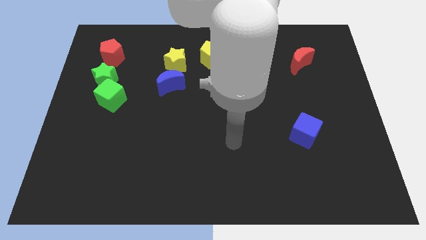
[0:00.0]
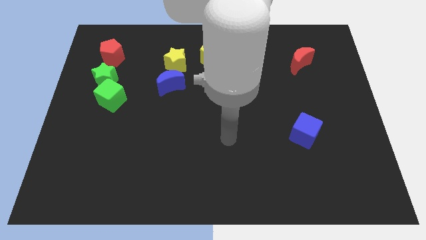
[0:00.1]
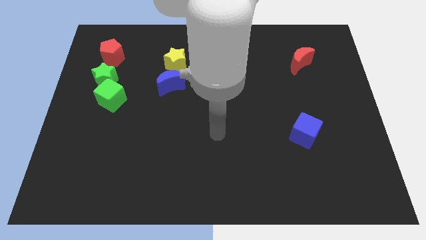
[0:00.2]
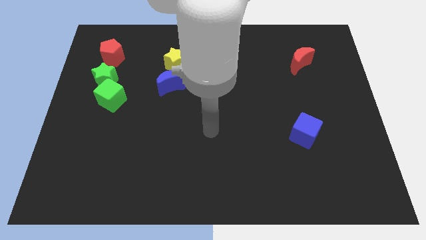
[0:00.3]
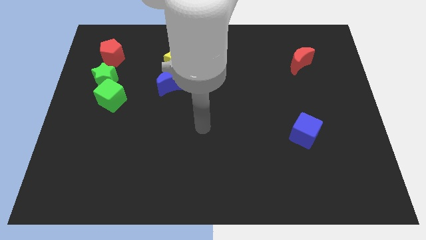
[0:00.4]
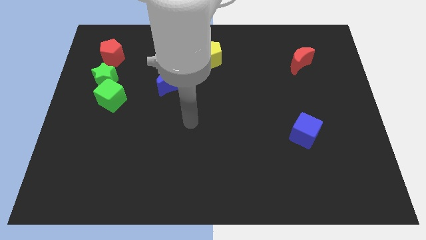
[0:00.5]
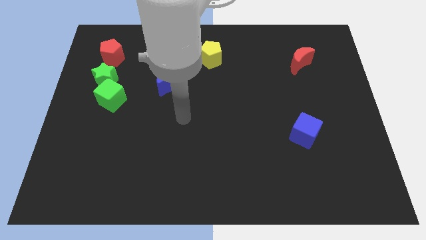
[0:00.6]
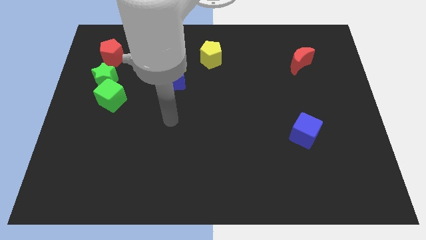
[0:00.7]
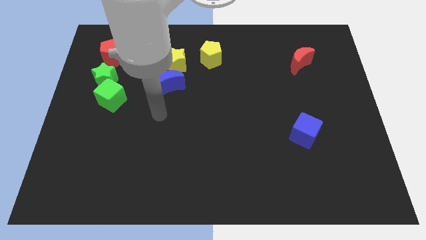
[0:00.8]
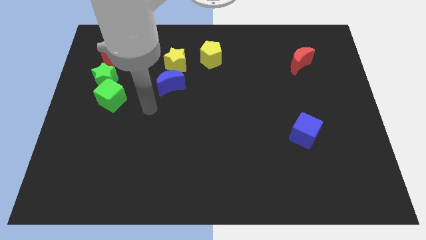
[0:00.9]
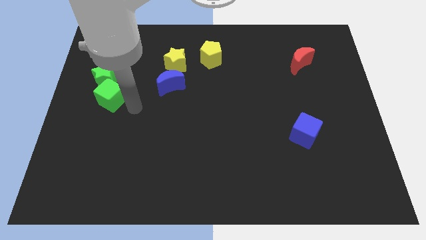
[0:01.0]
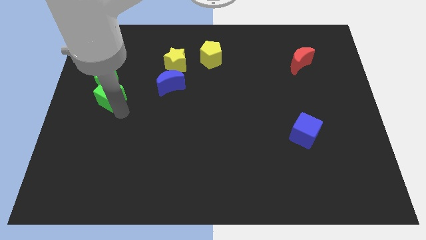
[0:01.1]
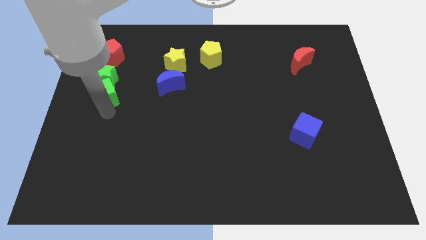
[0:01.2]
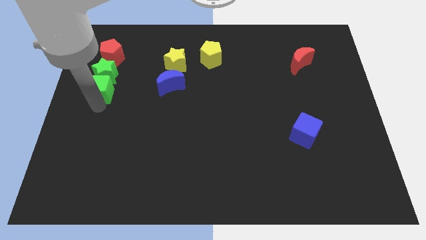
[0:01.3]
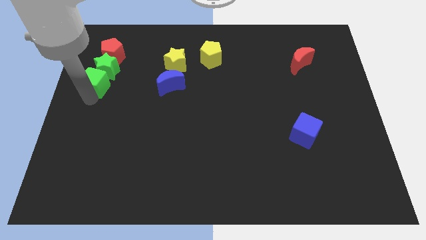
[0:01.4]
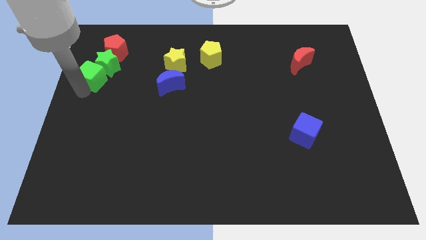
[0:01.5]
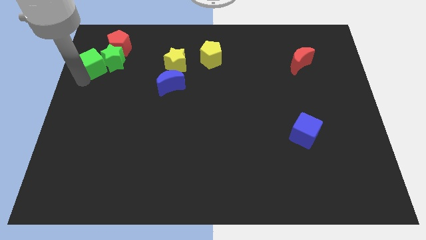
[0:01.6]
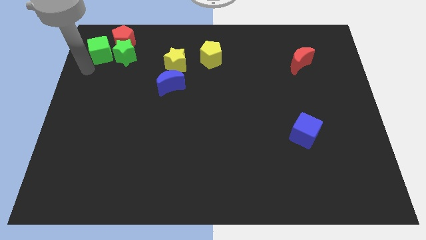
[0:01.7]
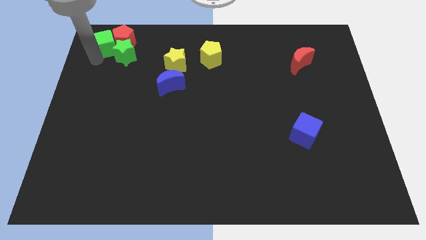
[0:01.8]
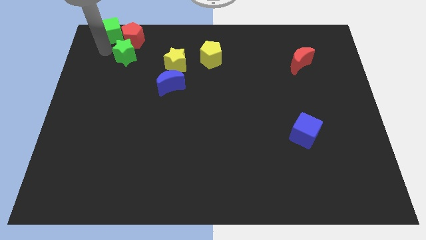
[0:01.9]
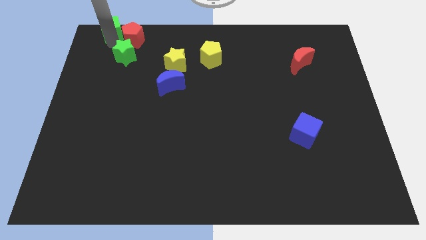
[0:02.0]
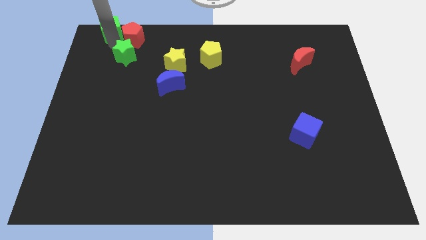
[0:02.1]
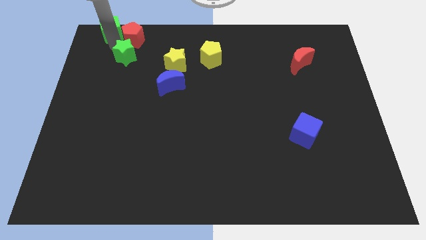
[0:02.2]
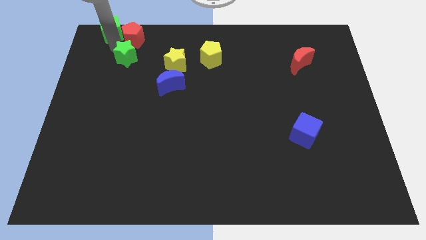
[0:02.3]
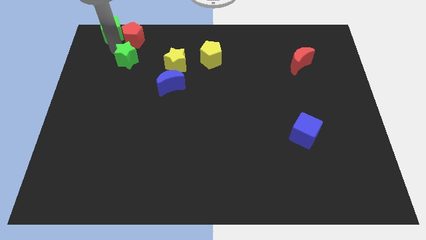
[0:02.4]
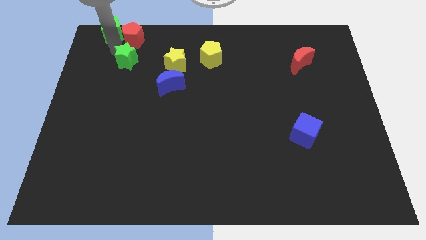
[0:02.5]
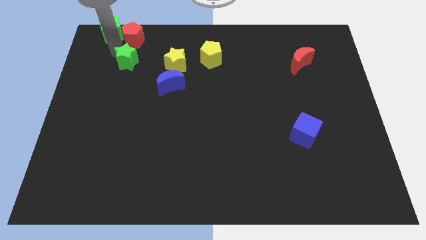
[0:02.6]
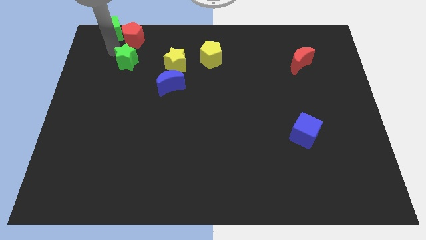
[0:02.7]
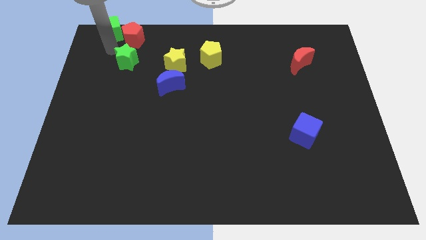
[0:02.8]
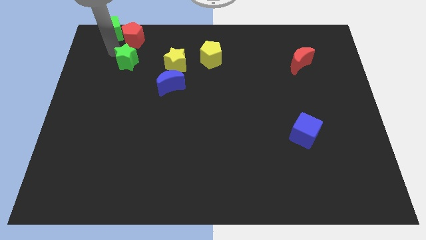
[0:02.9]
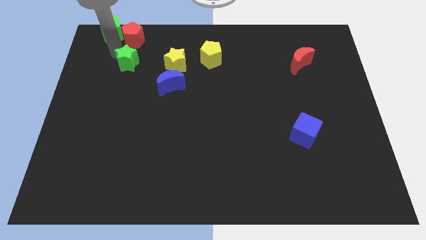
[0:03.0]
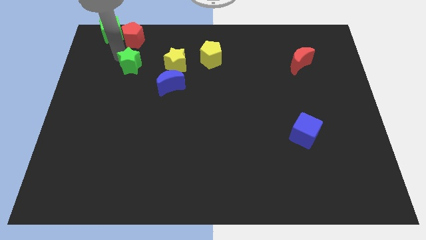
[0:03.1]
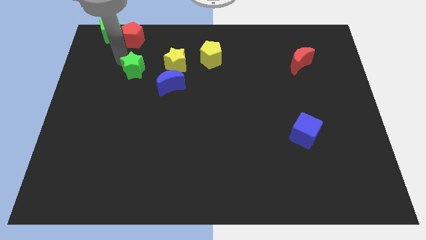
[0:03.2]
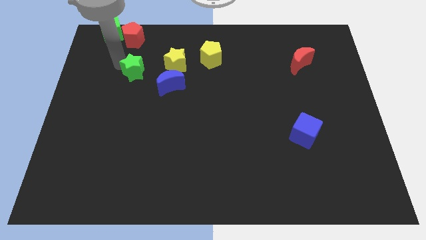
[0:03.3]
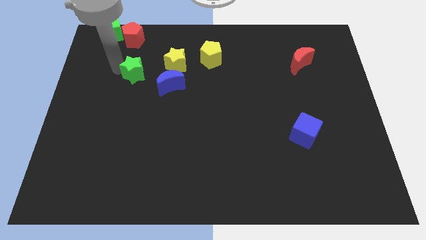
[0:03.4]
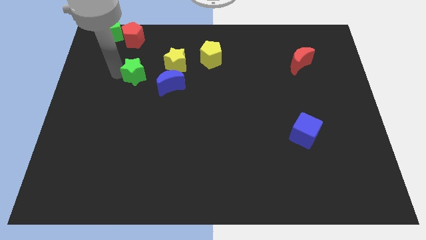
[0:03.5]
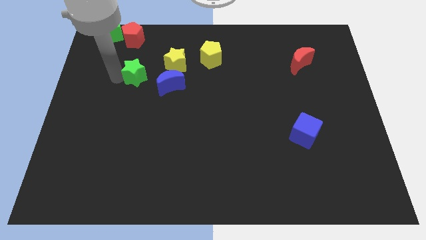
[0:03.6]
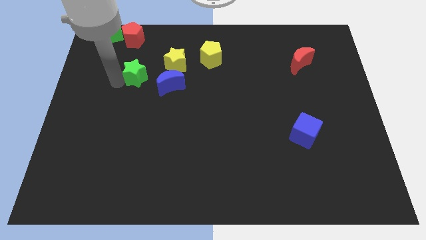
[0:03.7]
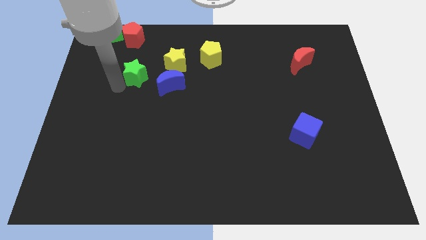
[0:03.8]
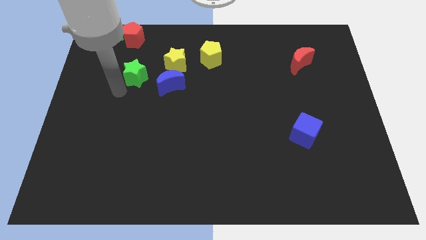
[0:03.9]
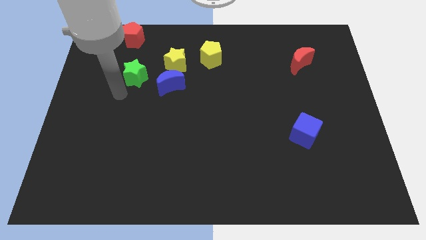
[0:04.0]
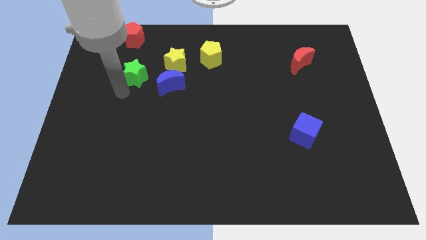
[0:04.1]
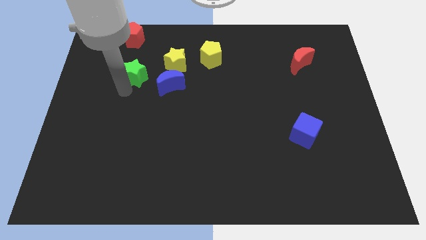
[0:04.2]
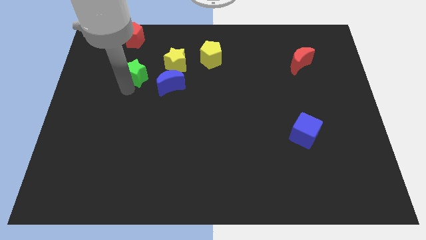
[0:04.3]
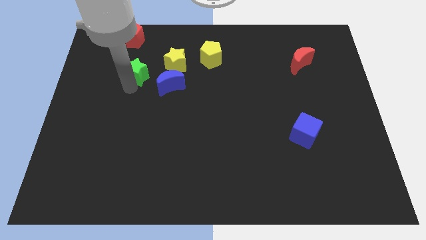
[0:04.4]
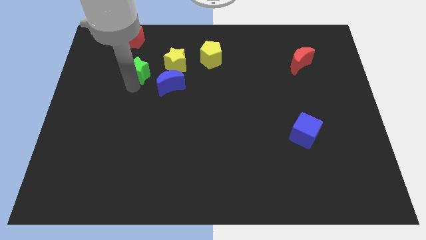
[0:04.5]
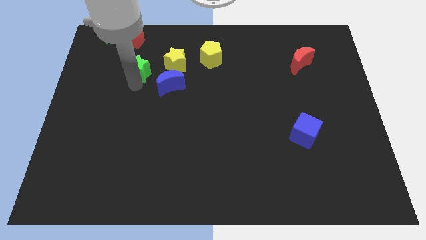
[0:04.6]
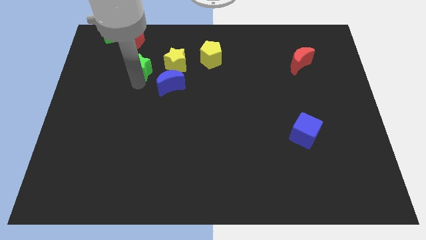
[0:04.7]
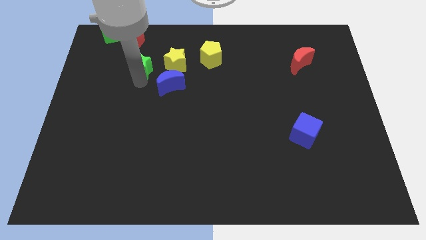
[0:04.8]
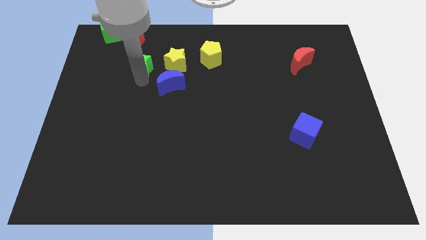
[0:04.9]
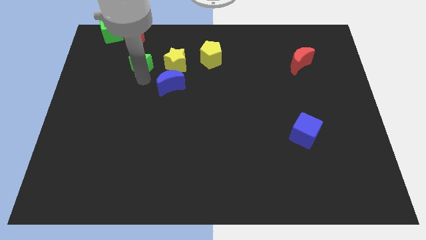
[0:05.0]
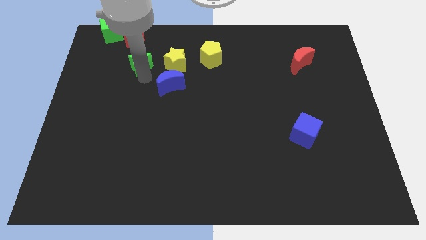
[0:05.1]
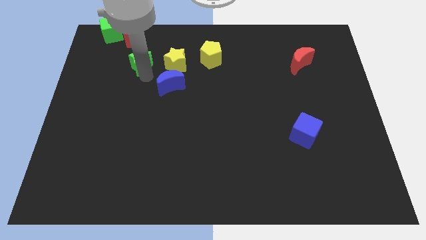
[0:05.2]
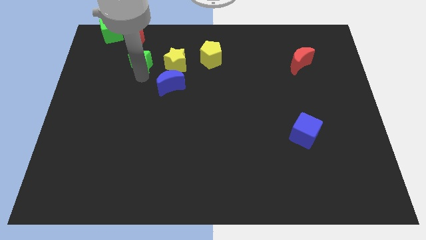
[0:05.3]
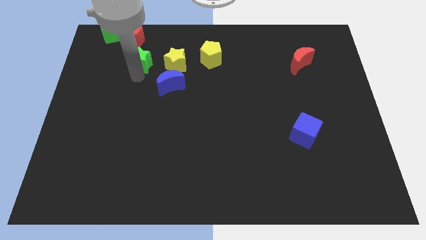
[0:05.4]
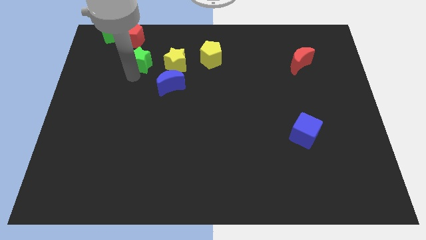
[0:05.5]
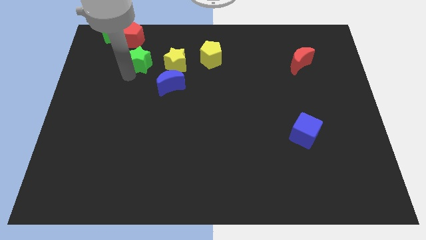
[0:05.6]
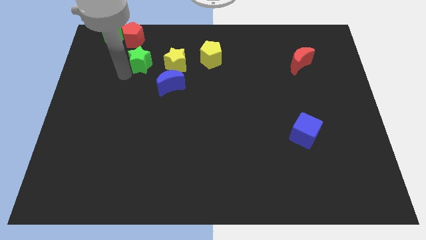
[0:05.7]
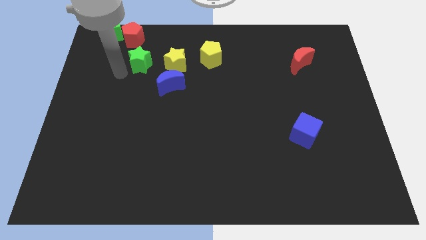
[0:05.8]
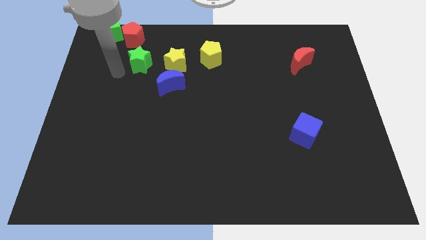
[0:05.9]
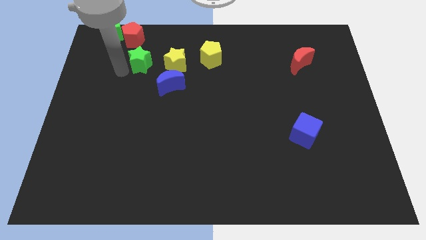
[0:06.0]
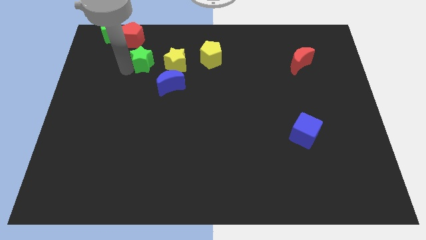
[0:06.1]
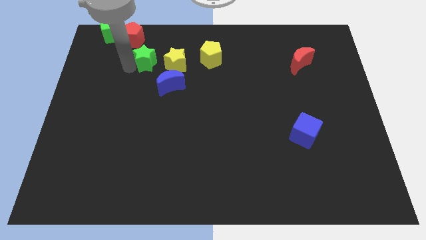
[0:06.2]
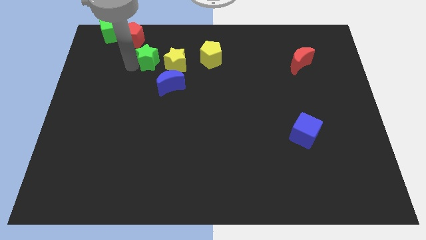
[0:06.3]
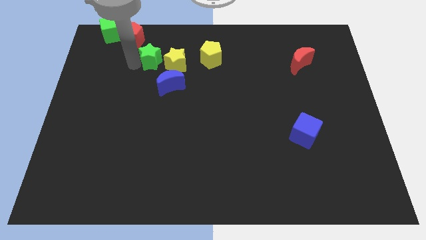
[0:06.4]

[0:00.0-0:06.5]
push the green star just left of the yellow pentagon

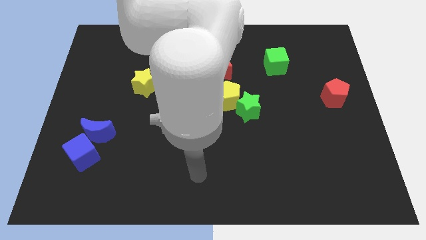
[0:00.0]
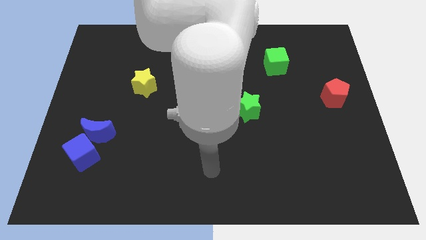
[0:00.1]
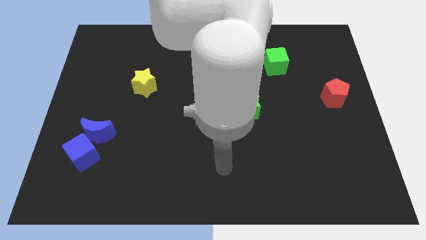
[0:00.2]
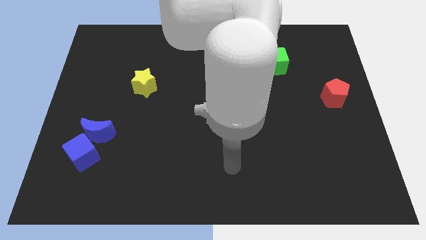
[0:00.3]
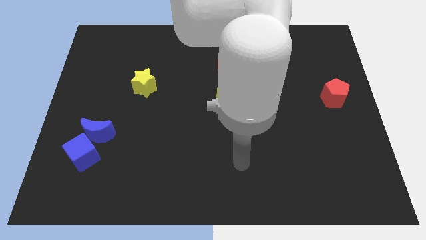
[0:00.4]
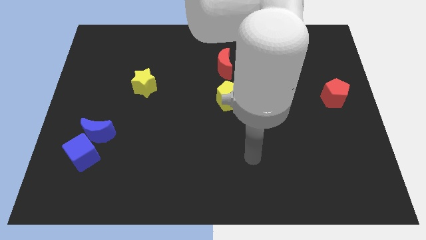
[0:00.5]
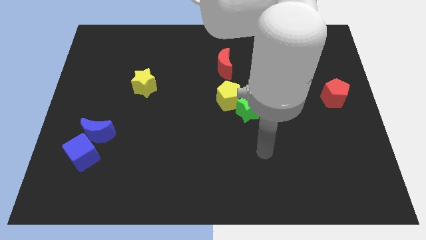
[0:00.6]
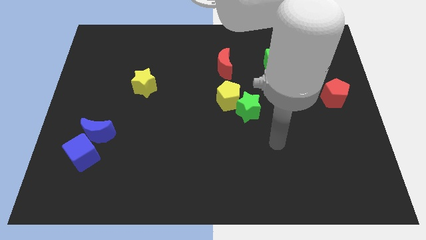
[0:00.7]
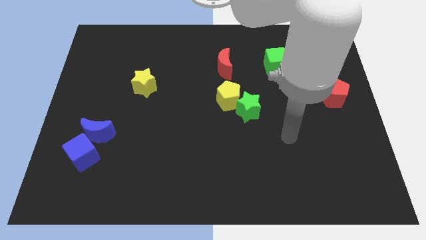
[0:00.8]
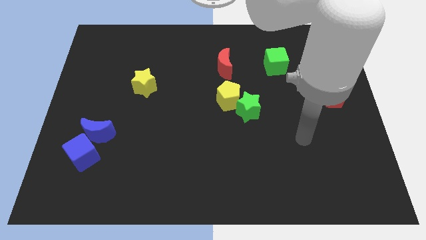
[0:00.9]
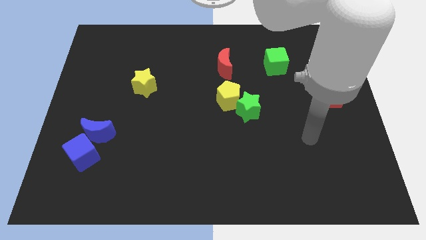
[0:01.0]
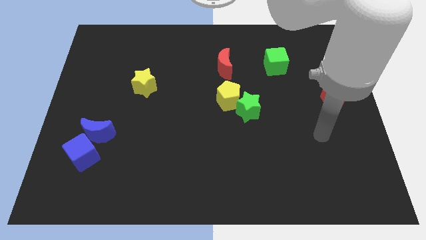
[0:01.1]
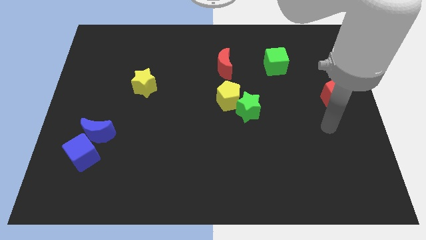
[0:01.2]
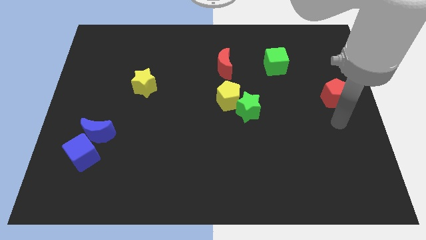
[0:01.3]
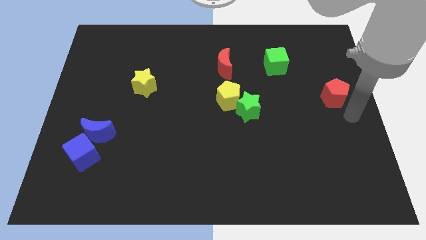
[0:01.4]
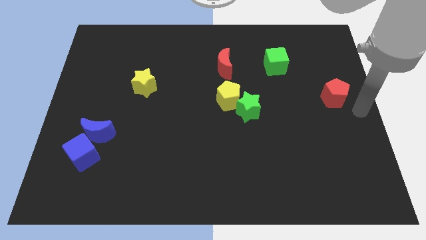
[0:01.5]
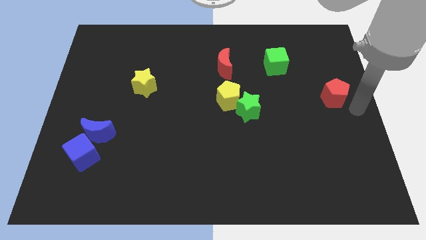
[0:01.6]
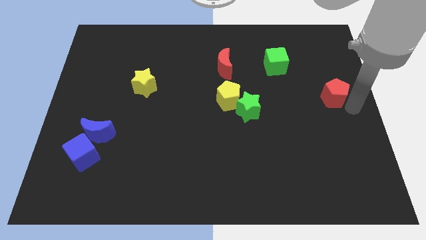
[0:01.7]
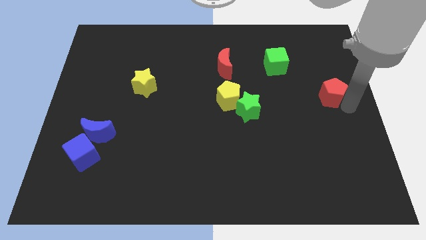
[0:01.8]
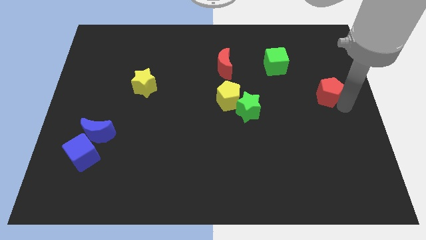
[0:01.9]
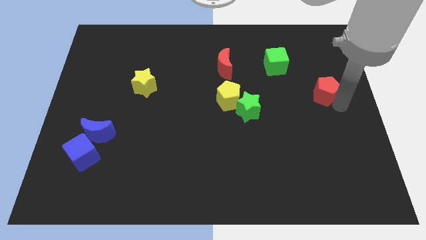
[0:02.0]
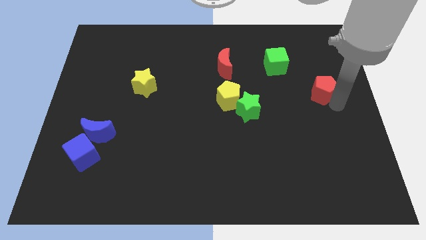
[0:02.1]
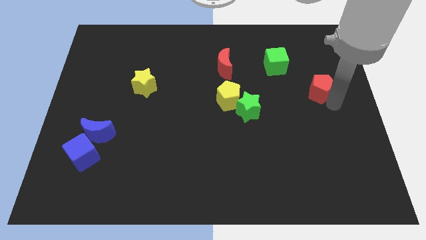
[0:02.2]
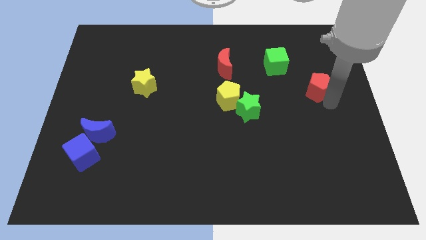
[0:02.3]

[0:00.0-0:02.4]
put the red pentagon diagonally down and to the right of the green cube
